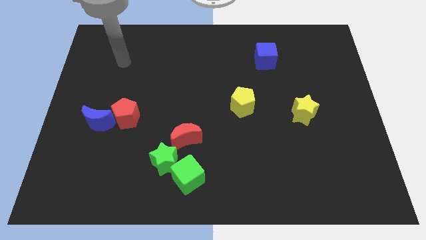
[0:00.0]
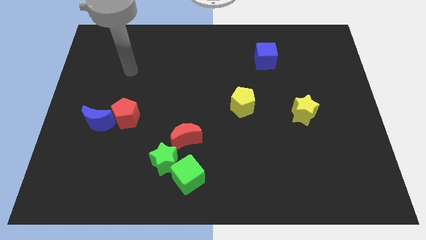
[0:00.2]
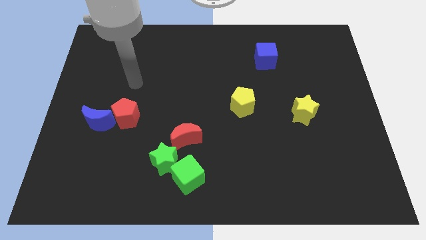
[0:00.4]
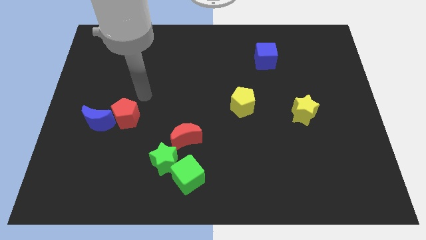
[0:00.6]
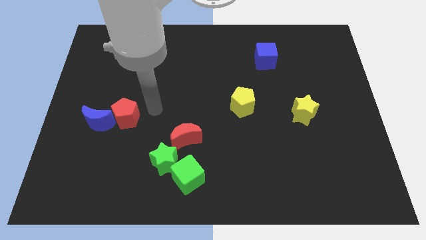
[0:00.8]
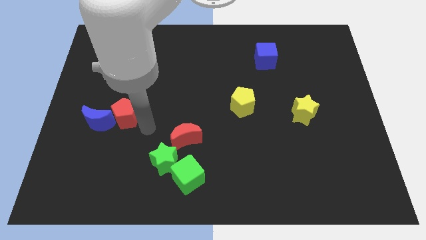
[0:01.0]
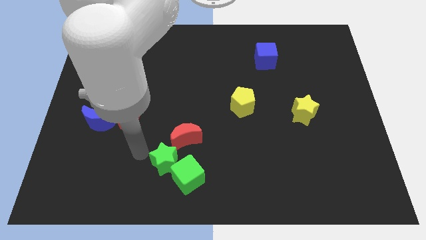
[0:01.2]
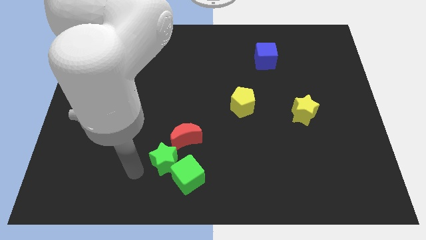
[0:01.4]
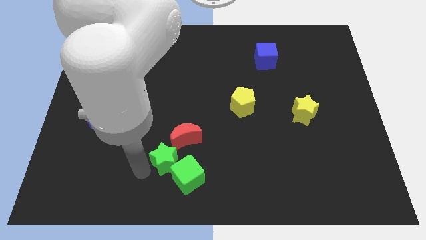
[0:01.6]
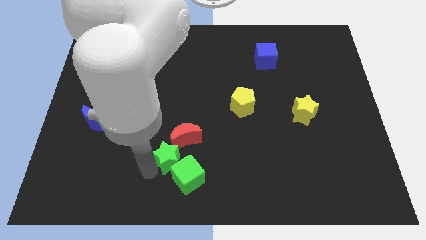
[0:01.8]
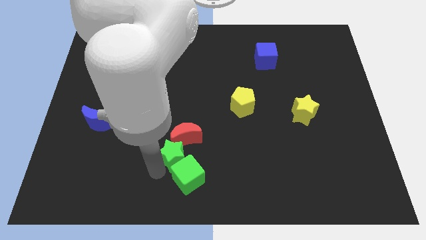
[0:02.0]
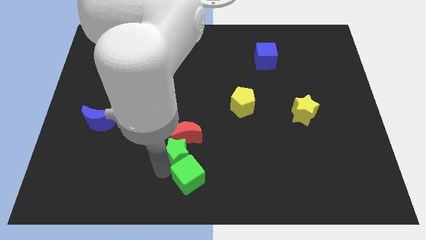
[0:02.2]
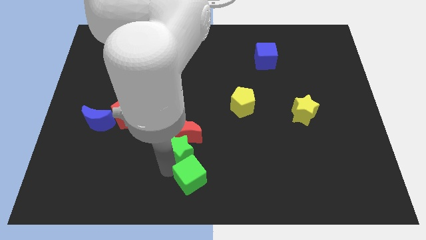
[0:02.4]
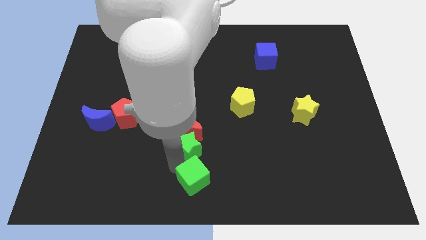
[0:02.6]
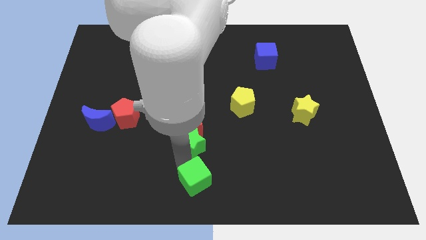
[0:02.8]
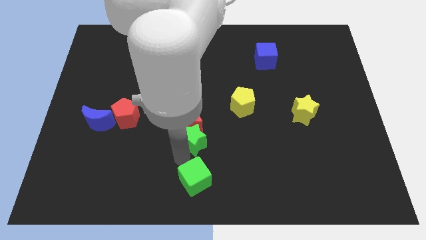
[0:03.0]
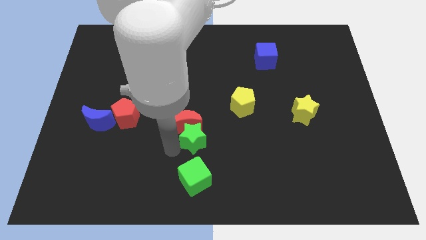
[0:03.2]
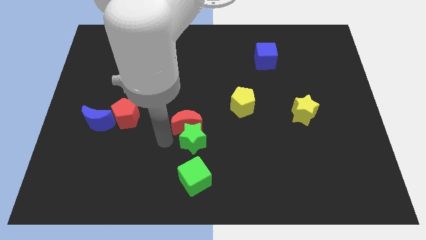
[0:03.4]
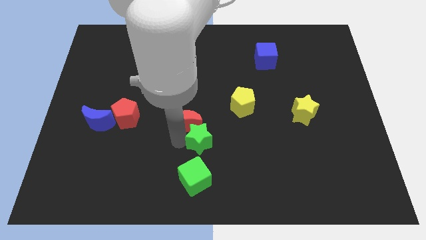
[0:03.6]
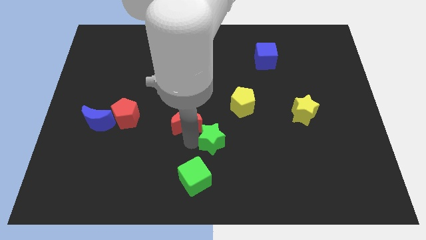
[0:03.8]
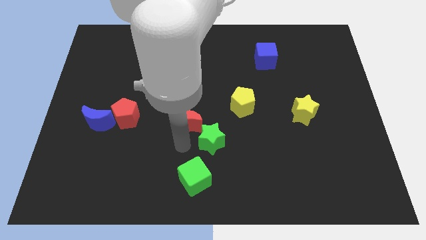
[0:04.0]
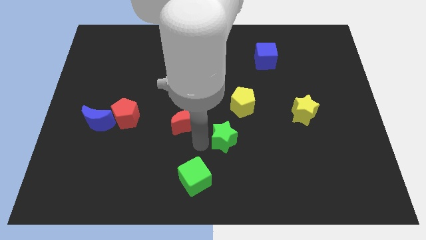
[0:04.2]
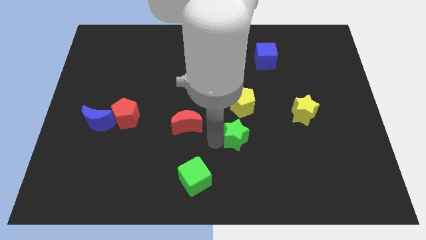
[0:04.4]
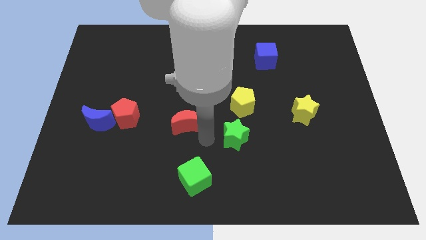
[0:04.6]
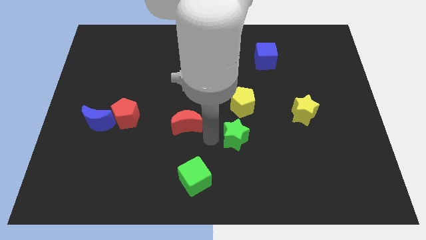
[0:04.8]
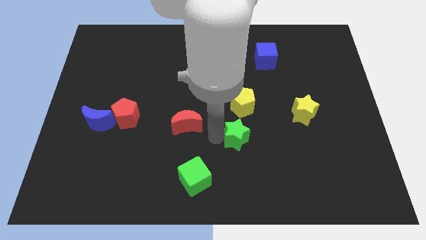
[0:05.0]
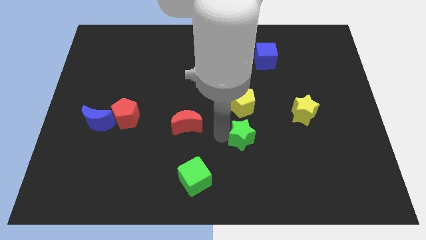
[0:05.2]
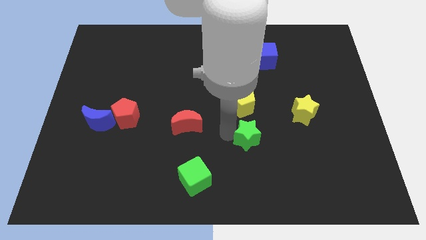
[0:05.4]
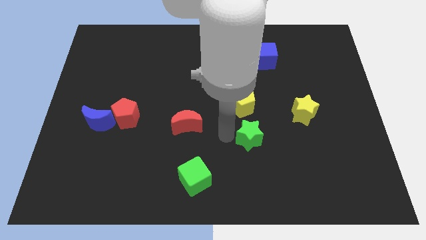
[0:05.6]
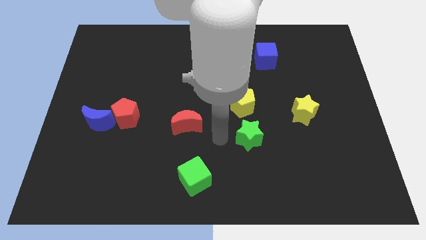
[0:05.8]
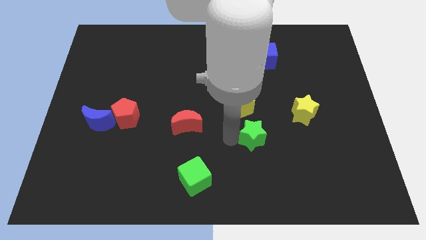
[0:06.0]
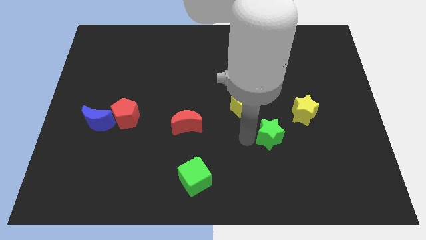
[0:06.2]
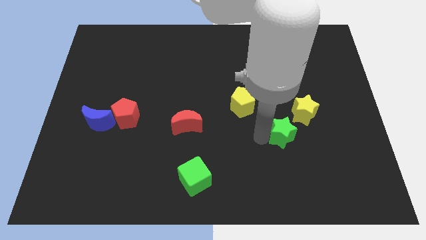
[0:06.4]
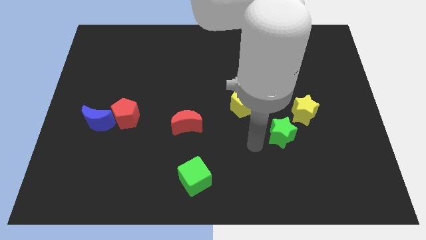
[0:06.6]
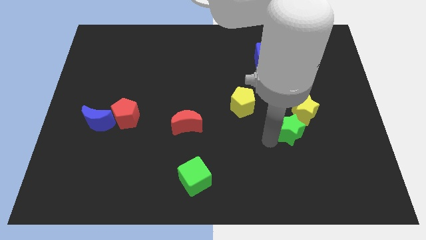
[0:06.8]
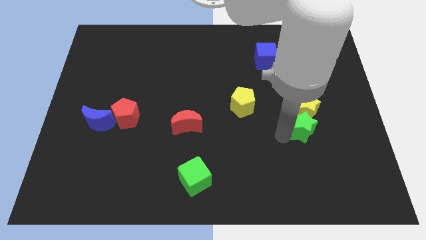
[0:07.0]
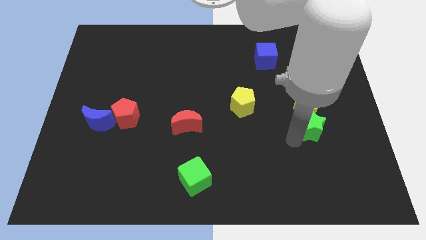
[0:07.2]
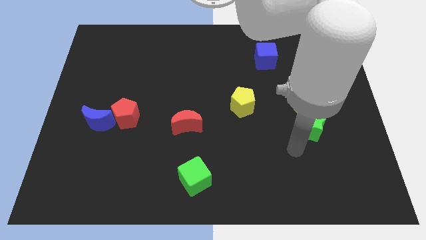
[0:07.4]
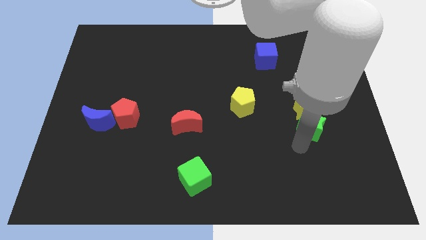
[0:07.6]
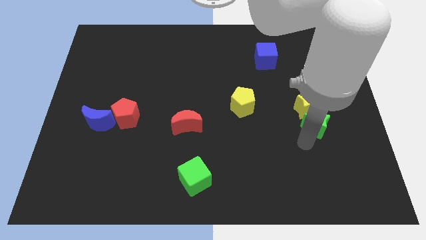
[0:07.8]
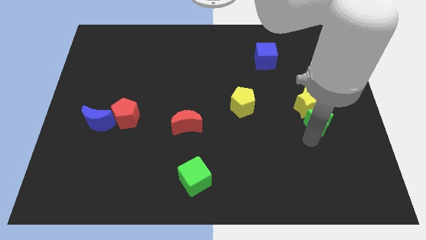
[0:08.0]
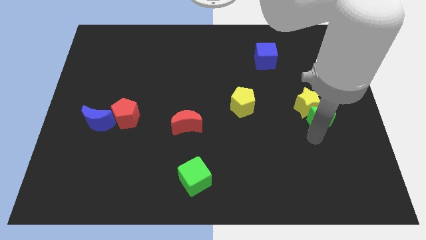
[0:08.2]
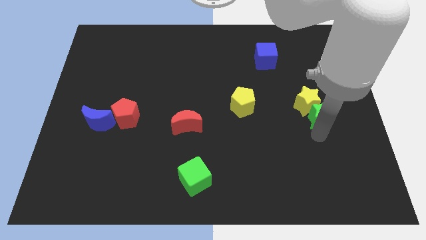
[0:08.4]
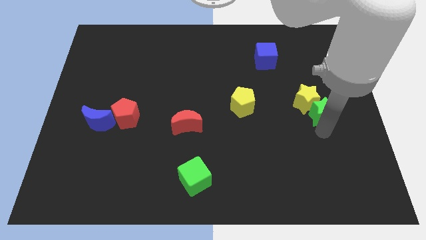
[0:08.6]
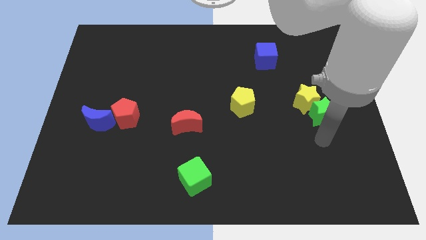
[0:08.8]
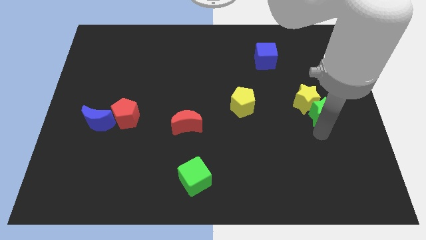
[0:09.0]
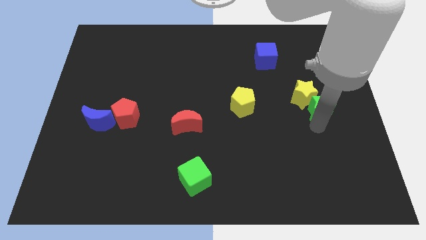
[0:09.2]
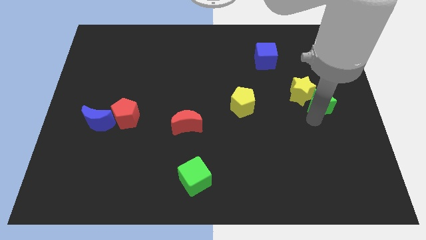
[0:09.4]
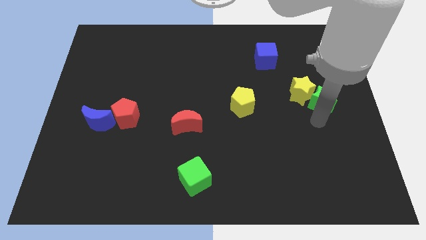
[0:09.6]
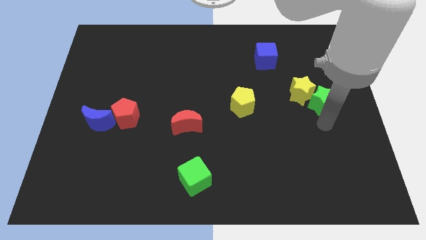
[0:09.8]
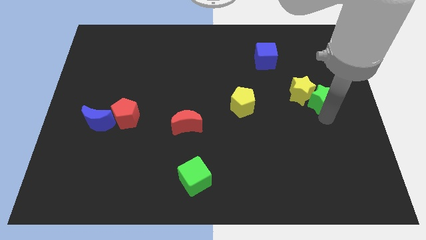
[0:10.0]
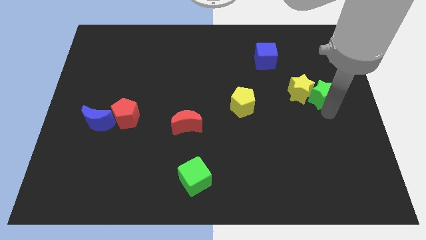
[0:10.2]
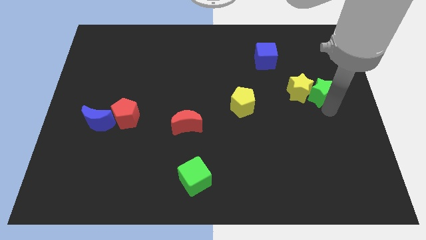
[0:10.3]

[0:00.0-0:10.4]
slide the green star diagonally up and to the right of the yellow star

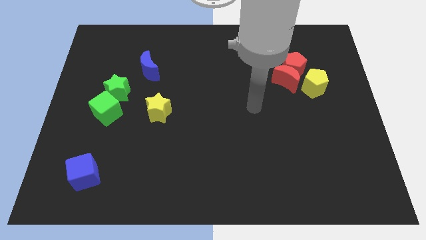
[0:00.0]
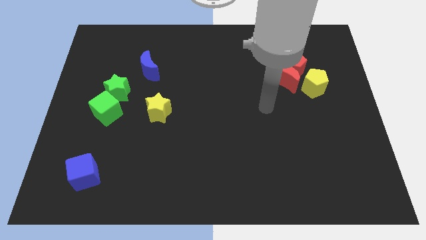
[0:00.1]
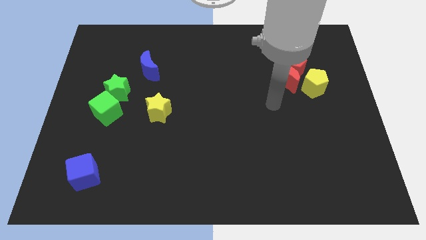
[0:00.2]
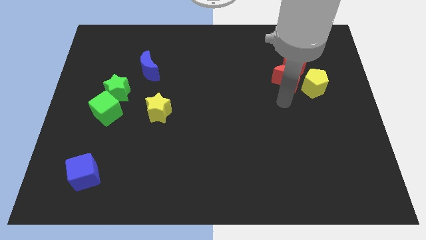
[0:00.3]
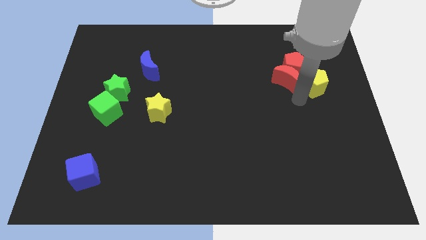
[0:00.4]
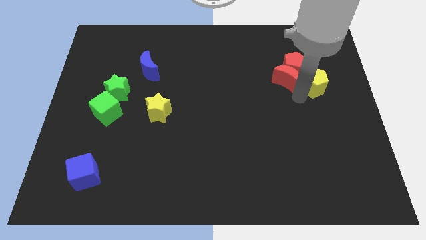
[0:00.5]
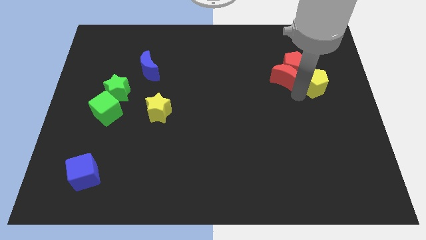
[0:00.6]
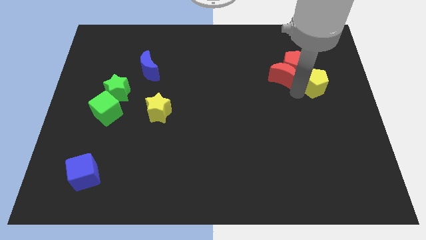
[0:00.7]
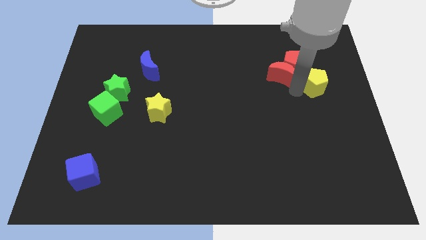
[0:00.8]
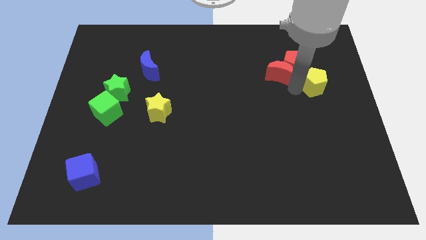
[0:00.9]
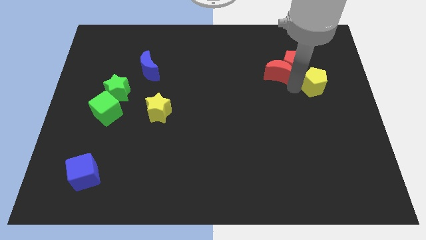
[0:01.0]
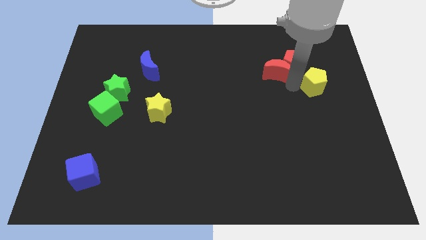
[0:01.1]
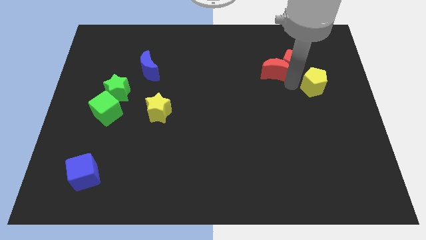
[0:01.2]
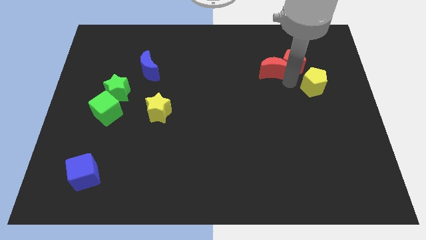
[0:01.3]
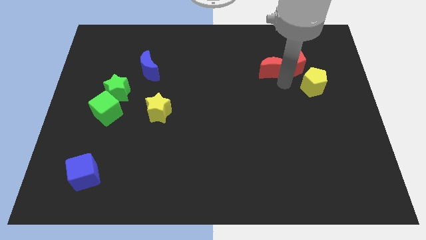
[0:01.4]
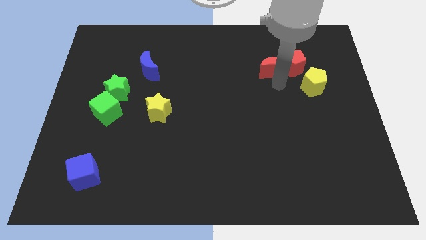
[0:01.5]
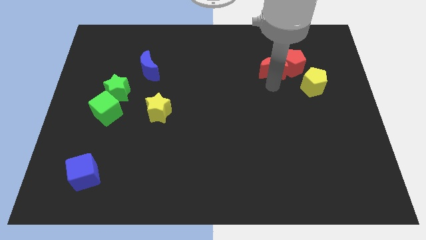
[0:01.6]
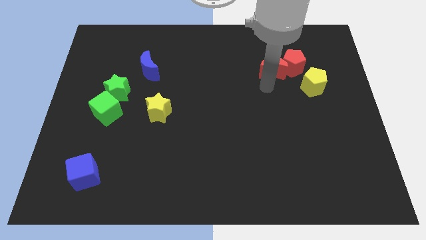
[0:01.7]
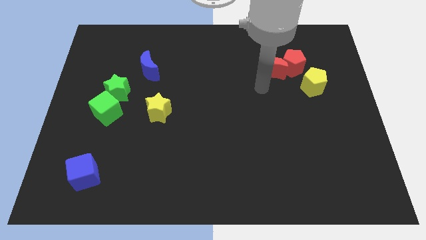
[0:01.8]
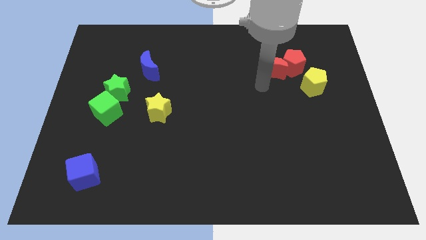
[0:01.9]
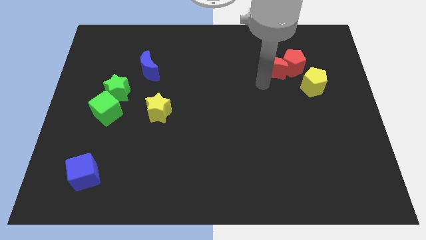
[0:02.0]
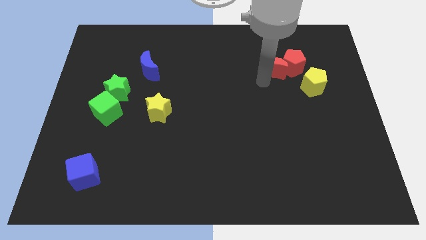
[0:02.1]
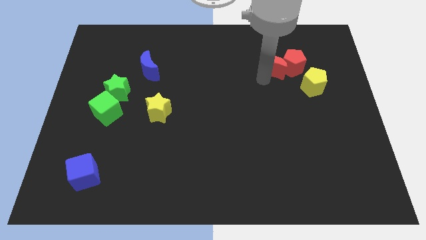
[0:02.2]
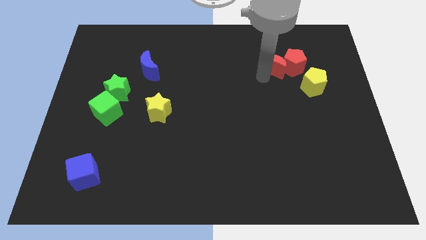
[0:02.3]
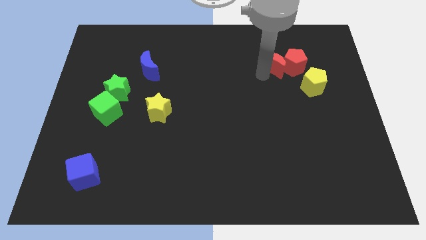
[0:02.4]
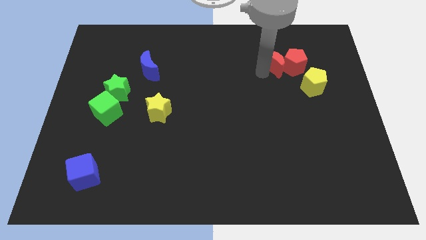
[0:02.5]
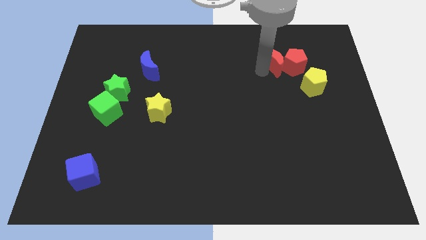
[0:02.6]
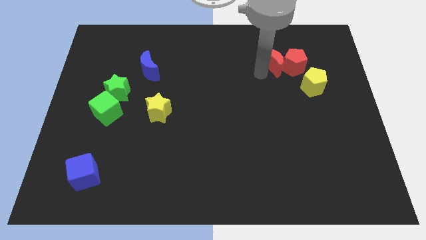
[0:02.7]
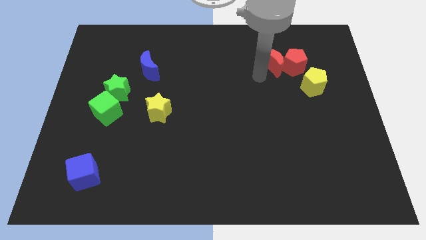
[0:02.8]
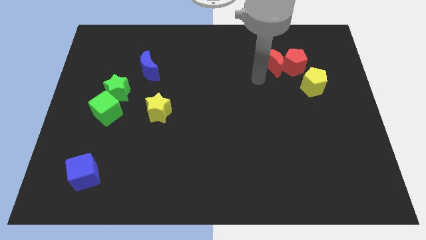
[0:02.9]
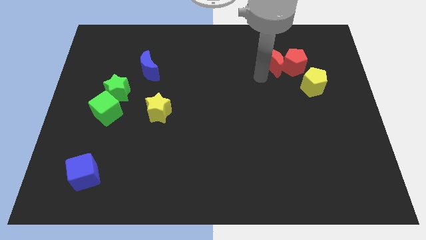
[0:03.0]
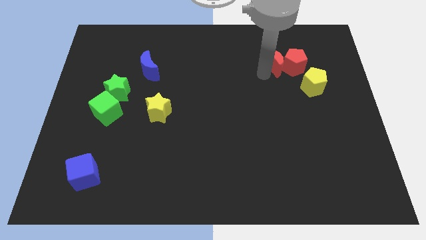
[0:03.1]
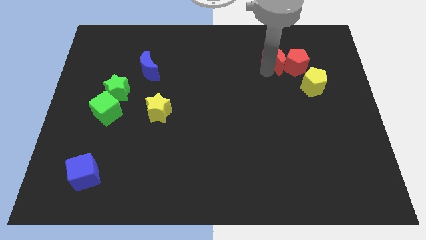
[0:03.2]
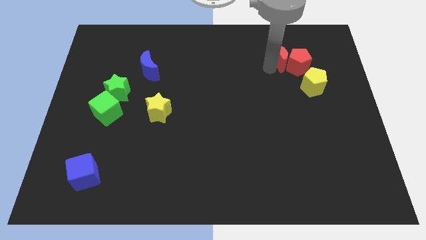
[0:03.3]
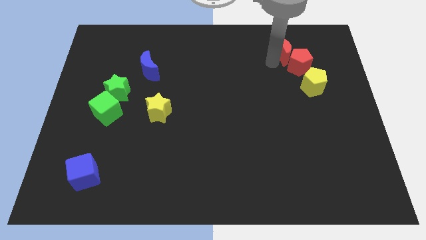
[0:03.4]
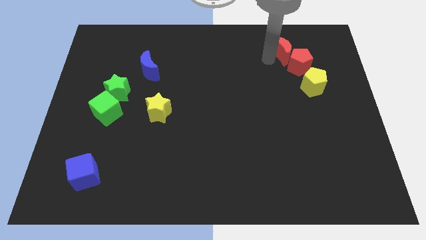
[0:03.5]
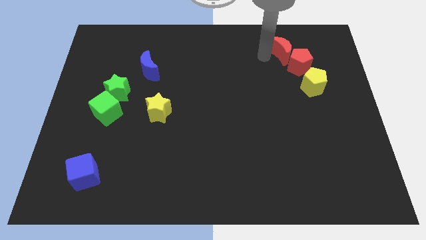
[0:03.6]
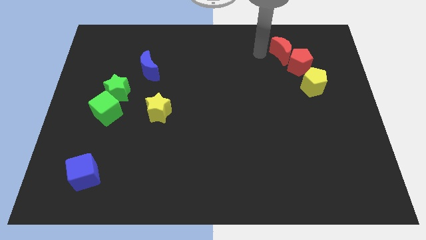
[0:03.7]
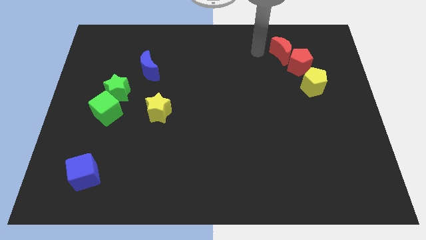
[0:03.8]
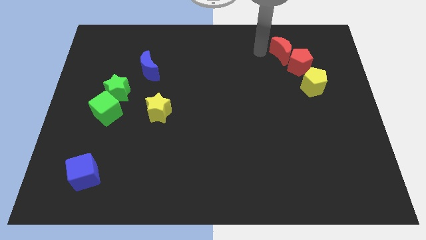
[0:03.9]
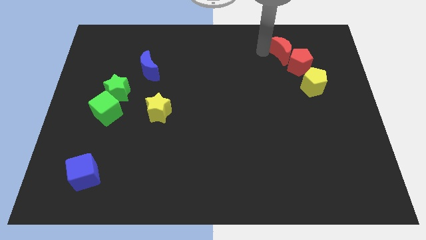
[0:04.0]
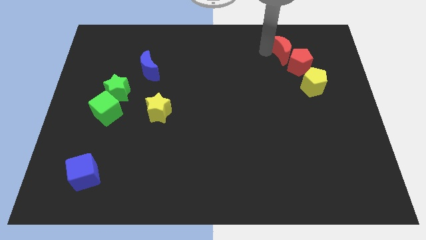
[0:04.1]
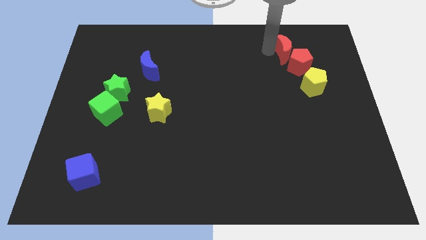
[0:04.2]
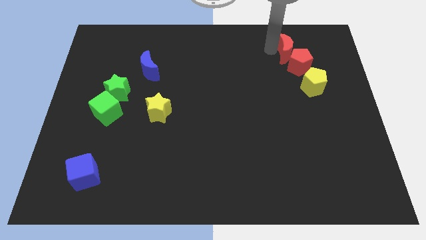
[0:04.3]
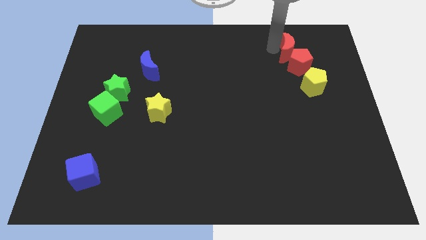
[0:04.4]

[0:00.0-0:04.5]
move the red moon to the top of the yellow pentagon
